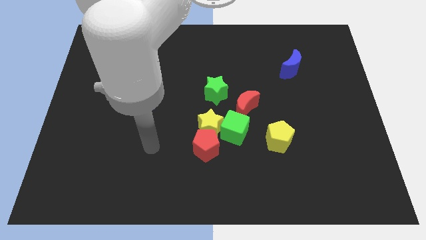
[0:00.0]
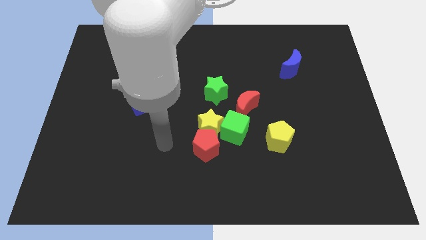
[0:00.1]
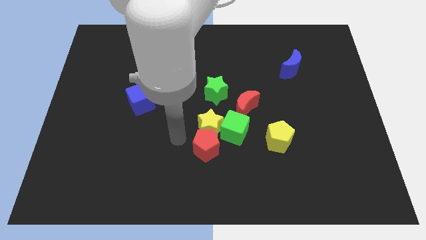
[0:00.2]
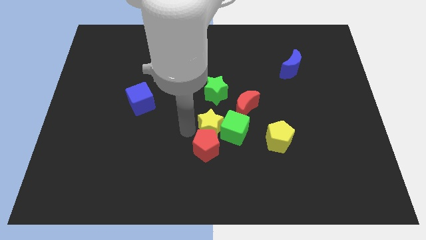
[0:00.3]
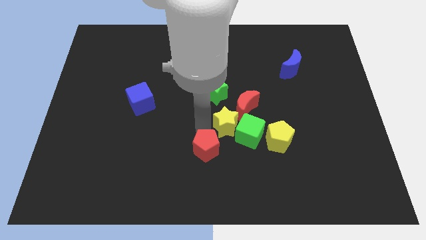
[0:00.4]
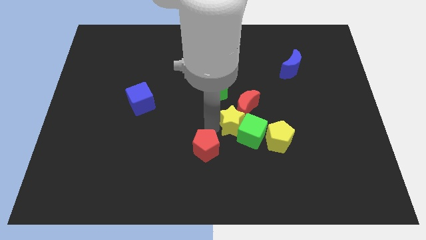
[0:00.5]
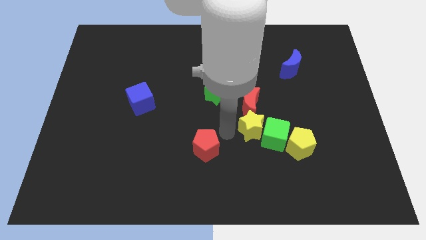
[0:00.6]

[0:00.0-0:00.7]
move the red pentagon away from the yellow star and green cube

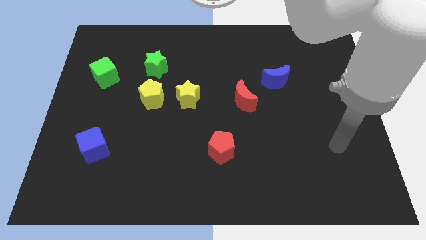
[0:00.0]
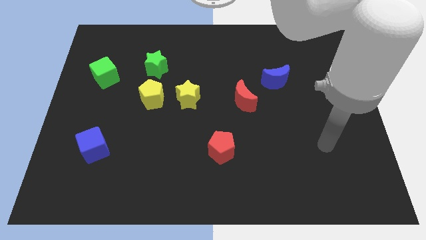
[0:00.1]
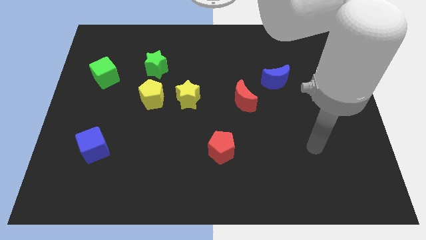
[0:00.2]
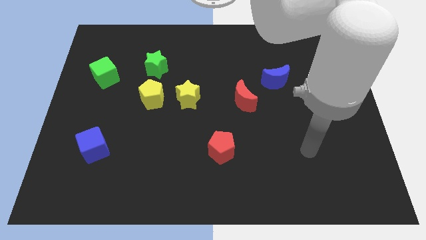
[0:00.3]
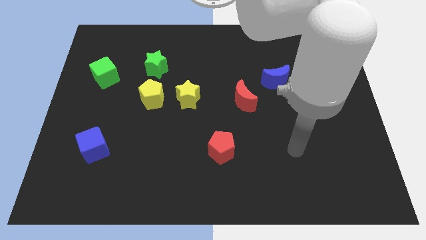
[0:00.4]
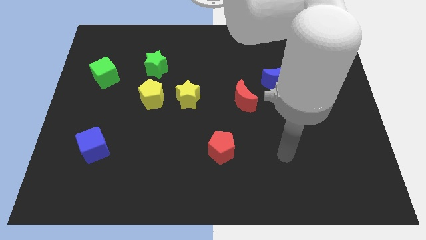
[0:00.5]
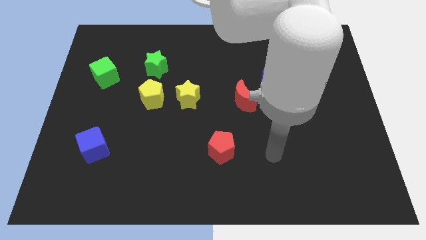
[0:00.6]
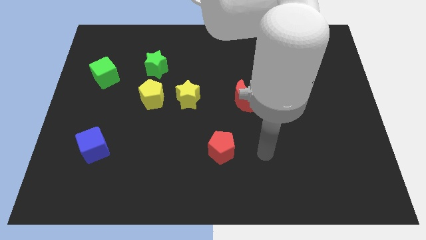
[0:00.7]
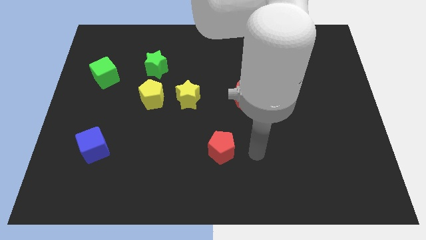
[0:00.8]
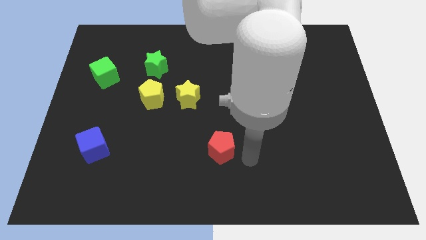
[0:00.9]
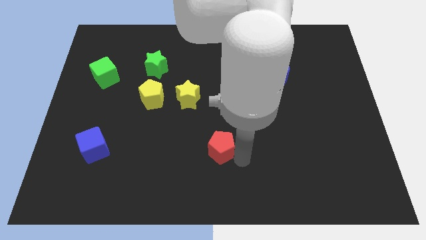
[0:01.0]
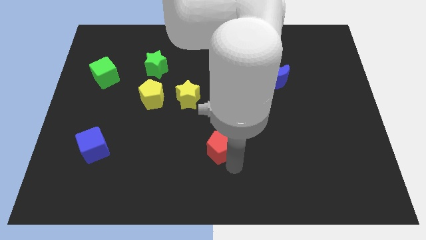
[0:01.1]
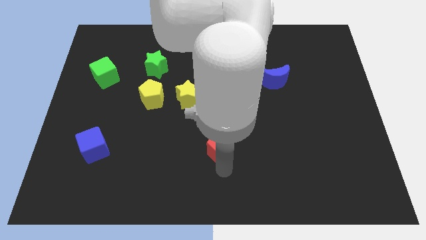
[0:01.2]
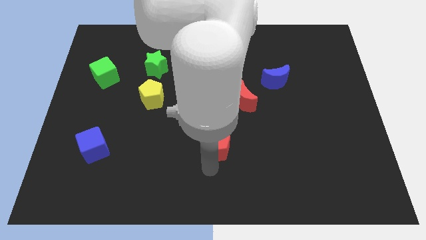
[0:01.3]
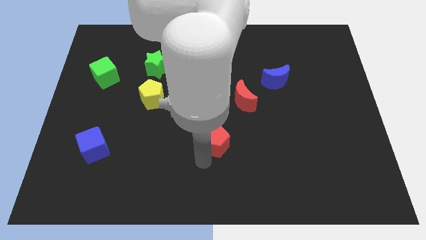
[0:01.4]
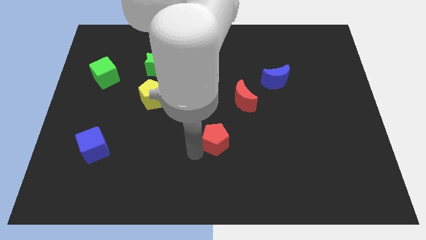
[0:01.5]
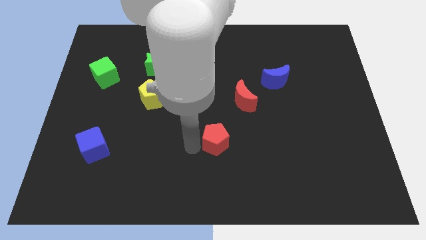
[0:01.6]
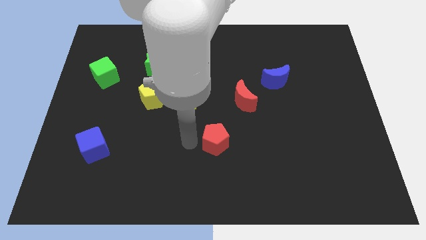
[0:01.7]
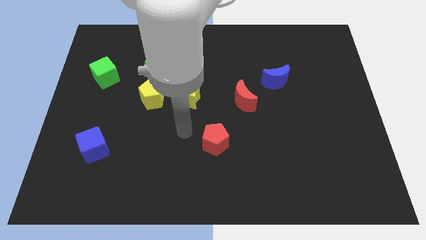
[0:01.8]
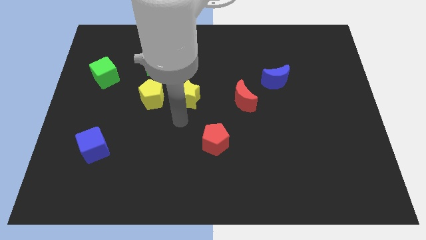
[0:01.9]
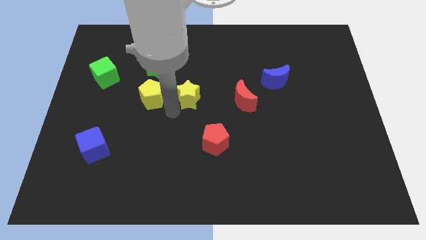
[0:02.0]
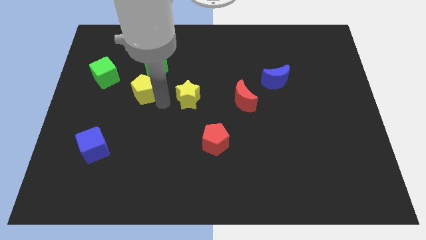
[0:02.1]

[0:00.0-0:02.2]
move the yellow star away from the yellow pentagon

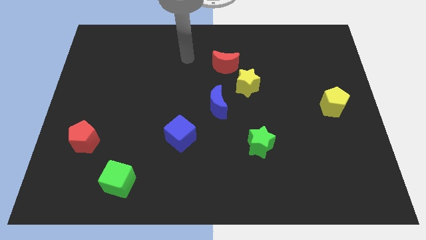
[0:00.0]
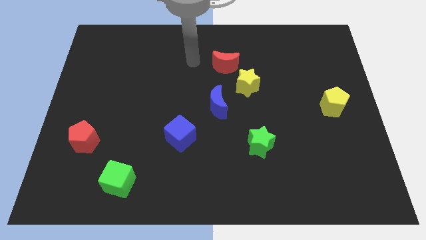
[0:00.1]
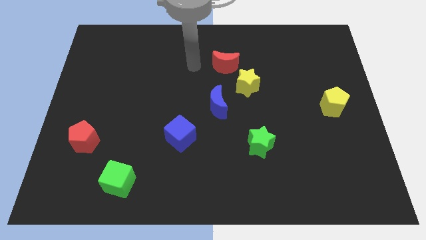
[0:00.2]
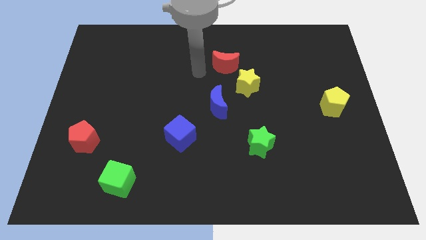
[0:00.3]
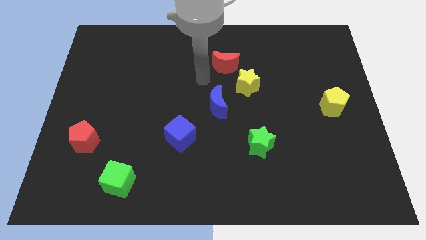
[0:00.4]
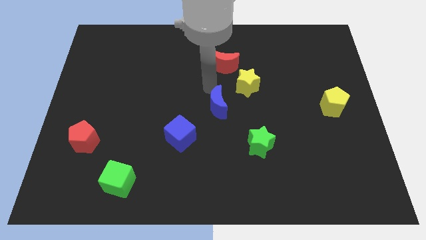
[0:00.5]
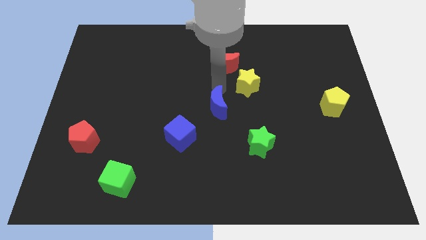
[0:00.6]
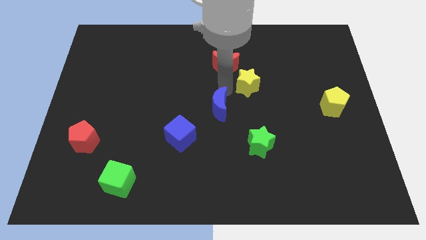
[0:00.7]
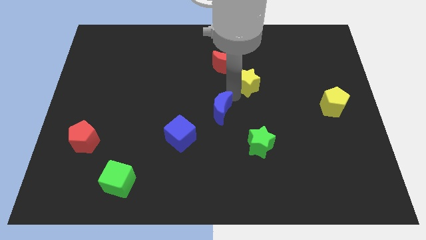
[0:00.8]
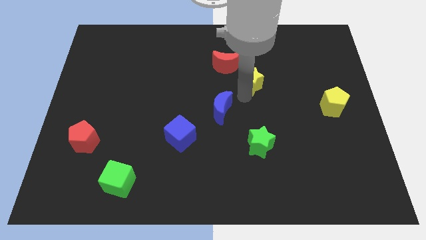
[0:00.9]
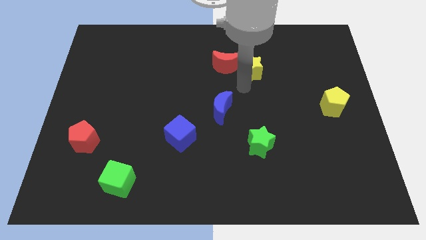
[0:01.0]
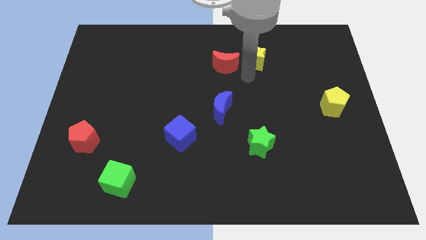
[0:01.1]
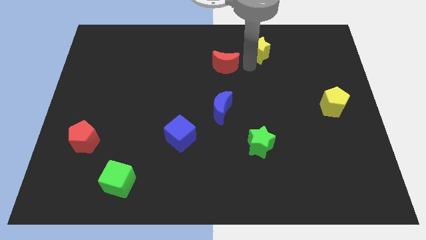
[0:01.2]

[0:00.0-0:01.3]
separate the red moon from the yellow star

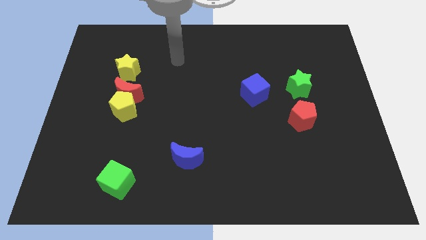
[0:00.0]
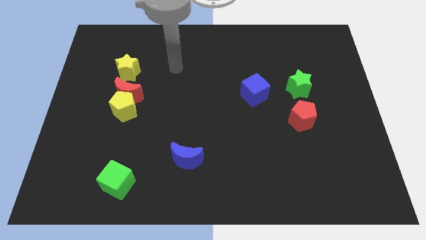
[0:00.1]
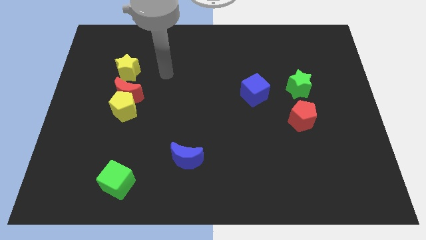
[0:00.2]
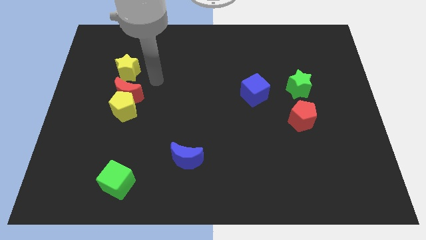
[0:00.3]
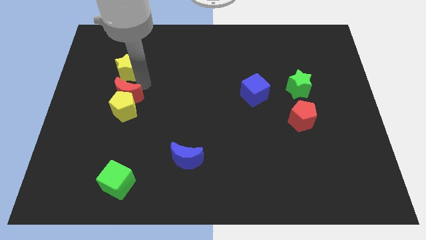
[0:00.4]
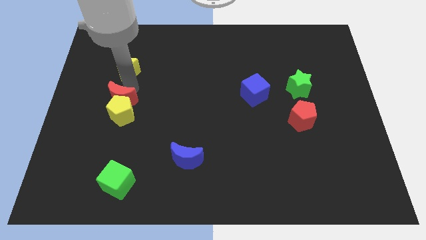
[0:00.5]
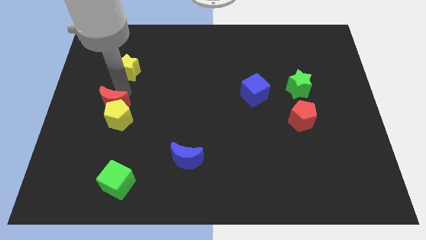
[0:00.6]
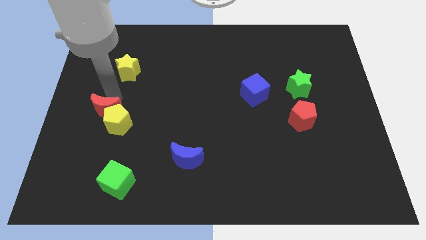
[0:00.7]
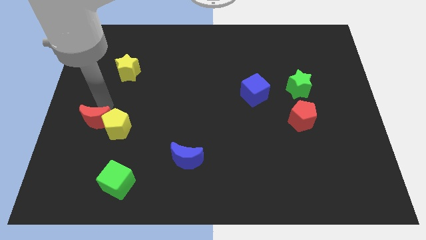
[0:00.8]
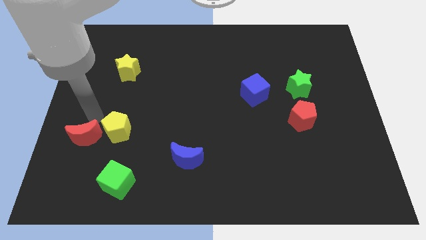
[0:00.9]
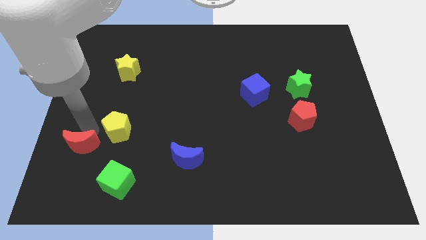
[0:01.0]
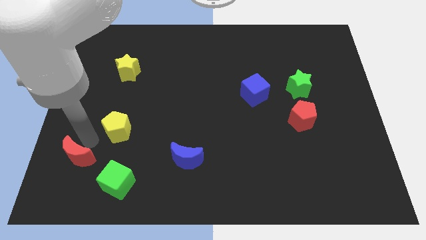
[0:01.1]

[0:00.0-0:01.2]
pull the yellow pentagon apart from the red moon

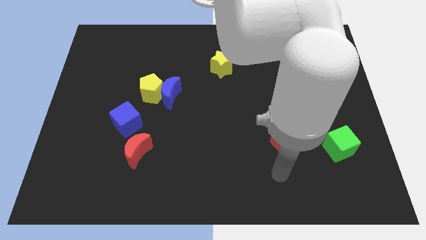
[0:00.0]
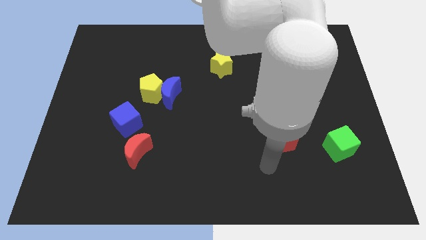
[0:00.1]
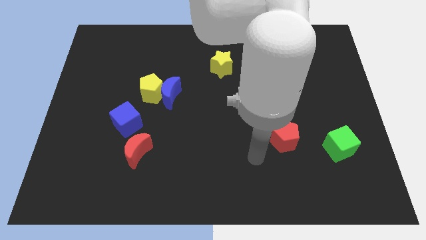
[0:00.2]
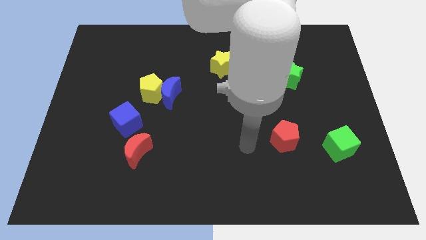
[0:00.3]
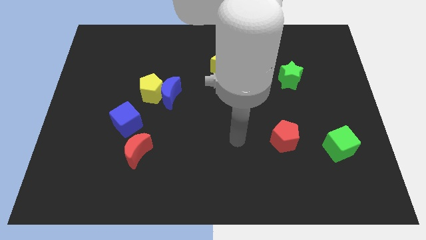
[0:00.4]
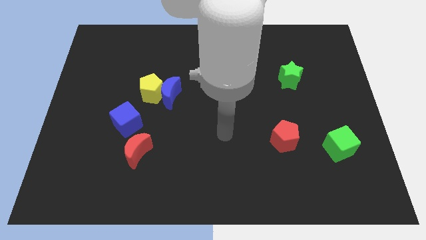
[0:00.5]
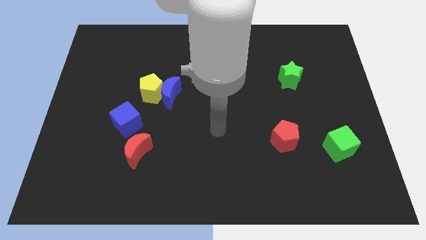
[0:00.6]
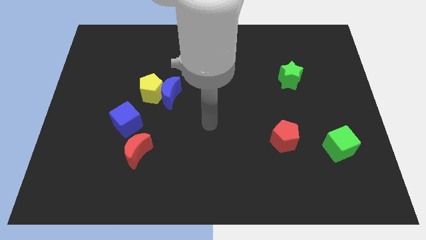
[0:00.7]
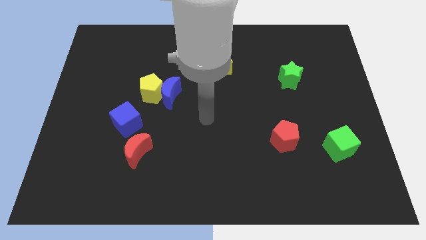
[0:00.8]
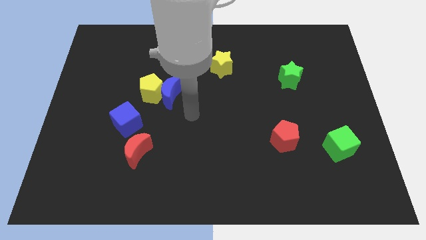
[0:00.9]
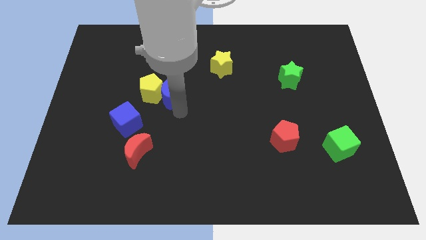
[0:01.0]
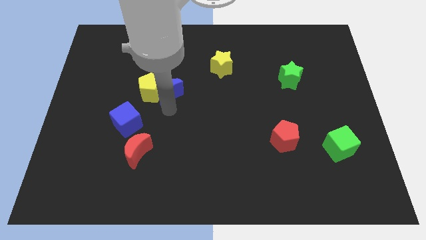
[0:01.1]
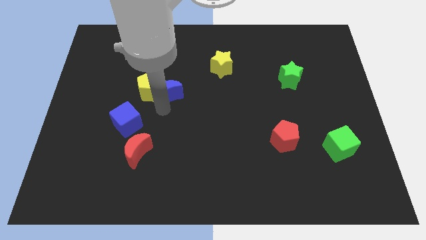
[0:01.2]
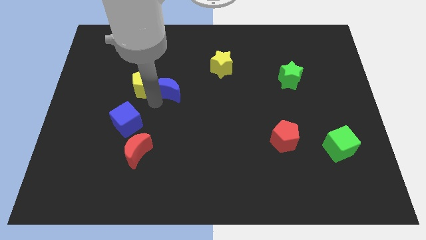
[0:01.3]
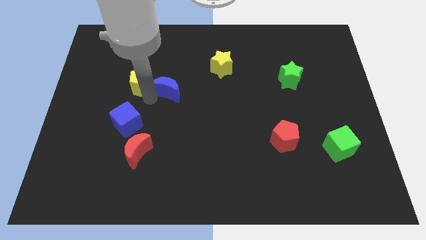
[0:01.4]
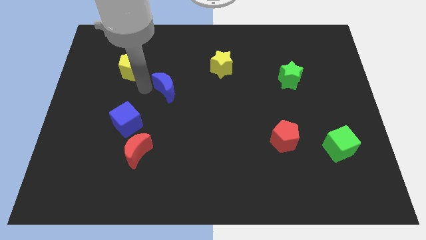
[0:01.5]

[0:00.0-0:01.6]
separate the blue moon from the yellow pentagon

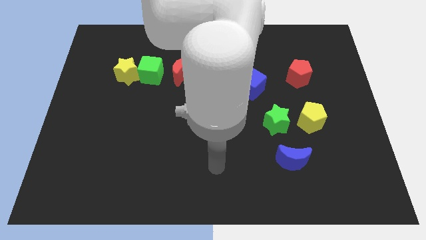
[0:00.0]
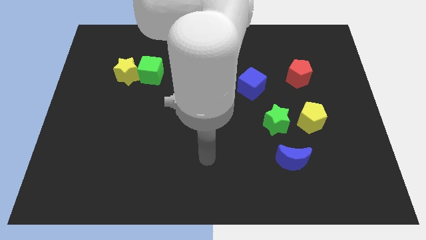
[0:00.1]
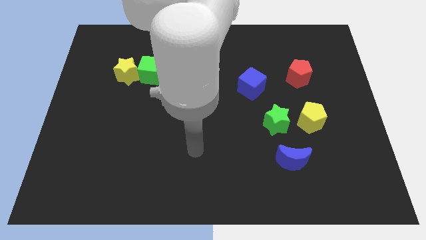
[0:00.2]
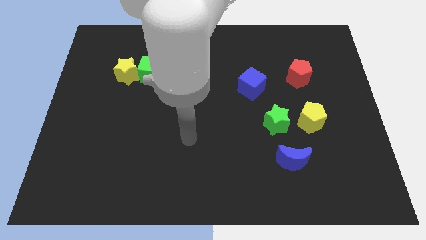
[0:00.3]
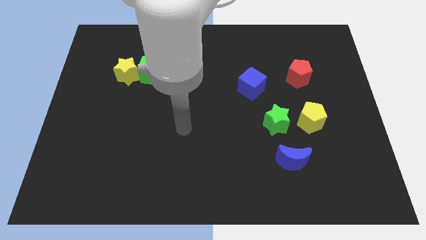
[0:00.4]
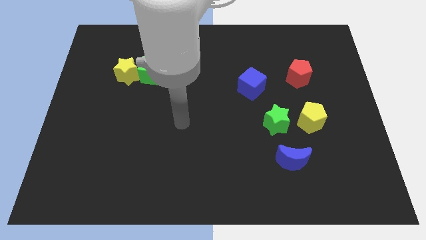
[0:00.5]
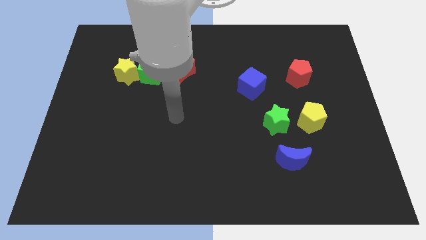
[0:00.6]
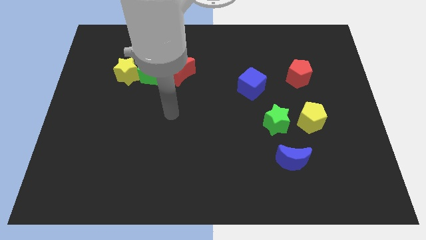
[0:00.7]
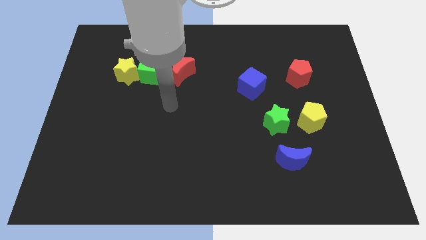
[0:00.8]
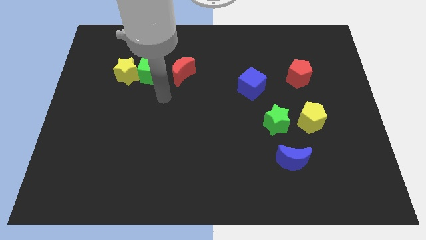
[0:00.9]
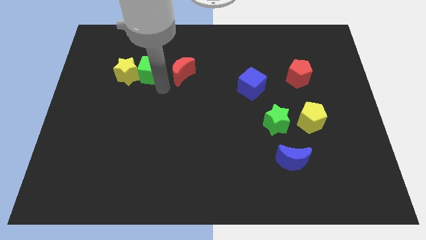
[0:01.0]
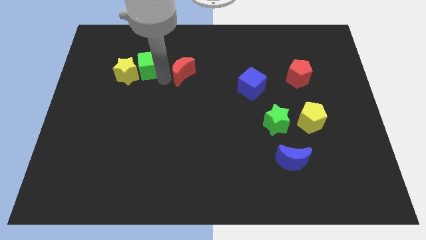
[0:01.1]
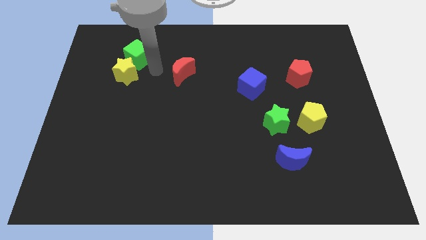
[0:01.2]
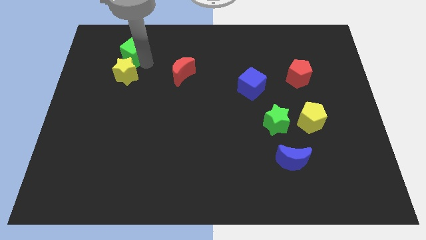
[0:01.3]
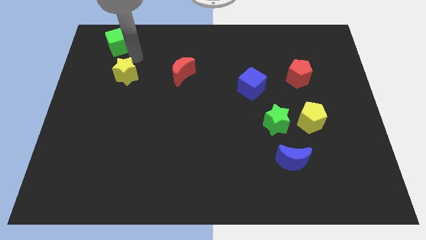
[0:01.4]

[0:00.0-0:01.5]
separate the yellow star from the green cube

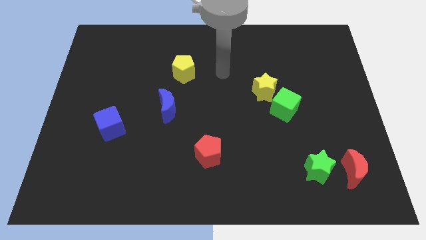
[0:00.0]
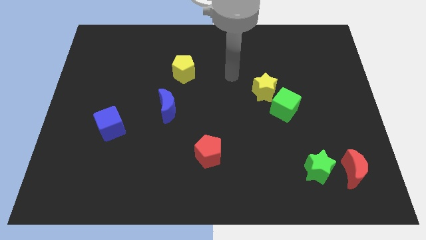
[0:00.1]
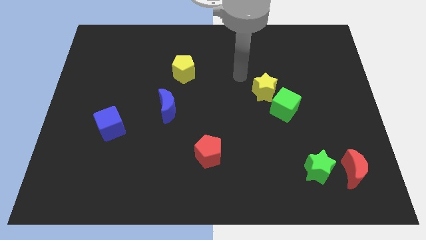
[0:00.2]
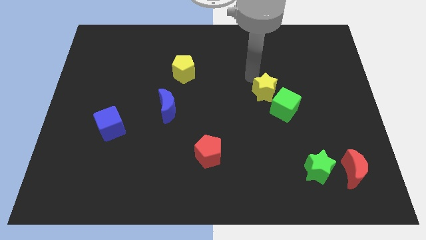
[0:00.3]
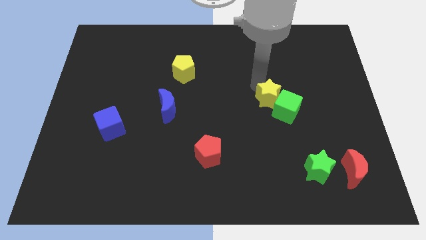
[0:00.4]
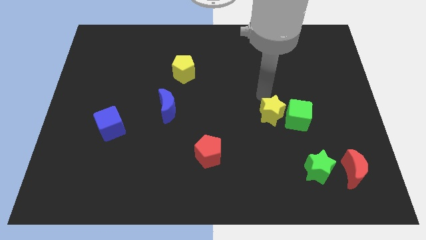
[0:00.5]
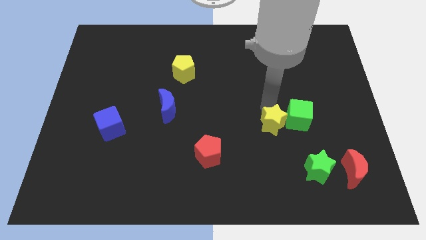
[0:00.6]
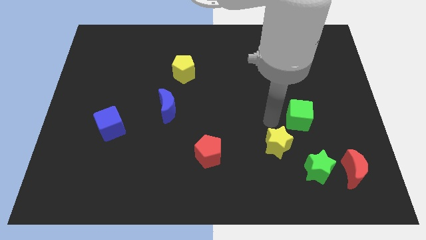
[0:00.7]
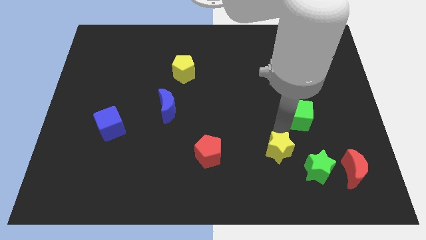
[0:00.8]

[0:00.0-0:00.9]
separate the green cube from the yellow star
